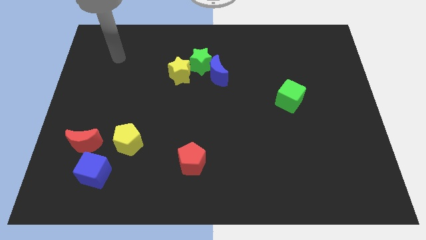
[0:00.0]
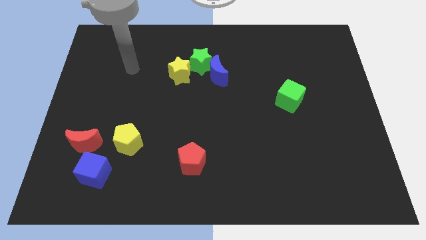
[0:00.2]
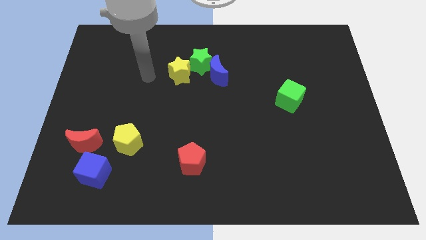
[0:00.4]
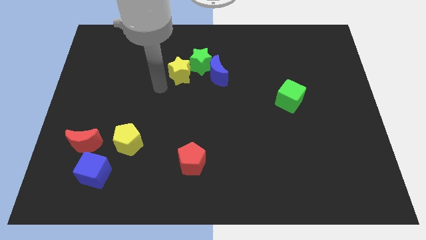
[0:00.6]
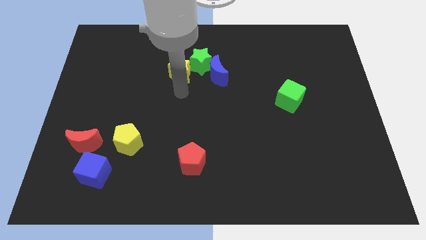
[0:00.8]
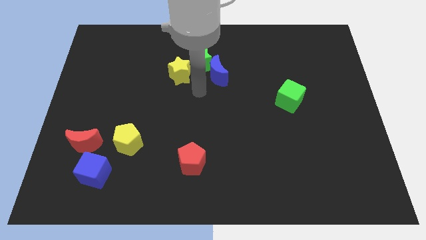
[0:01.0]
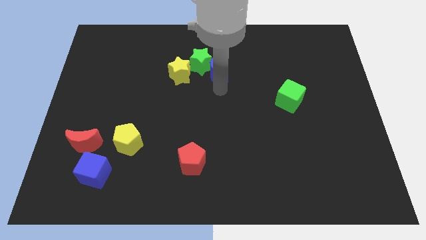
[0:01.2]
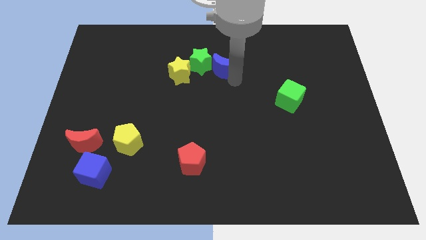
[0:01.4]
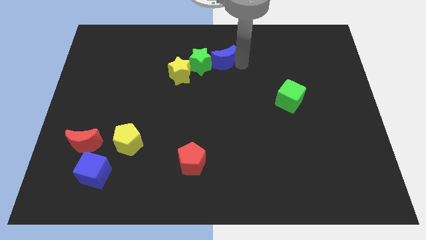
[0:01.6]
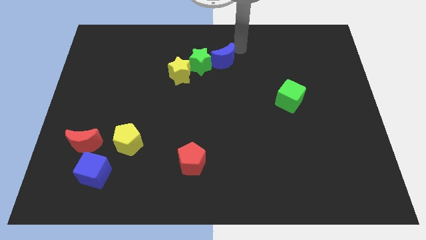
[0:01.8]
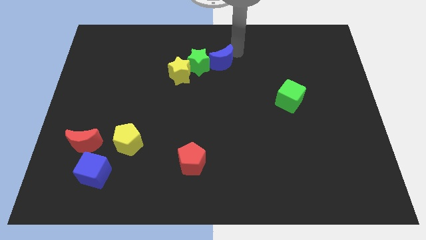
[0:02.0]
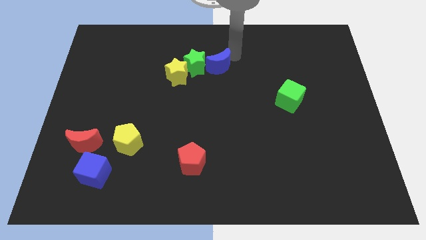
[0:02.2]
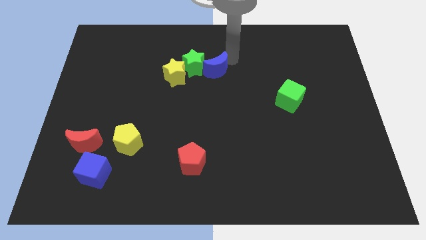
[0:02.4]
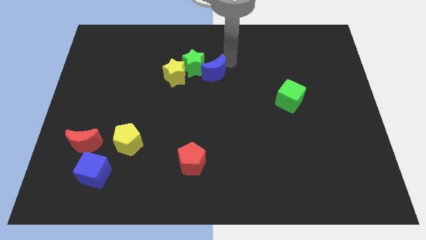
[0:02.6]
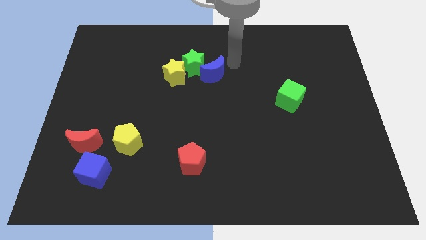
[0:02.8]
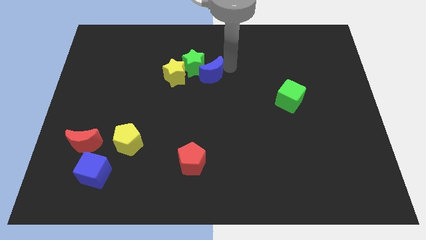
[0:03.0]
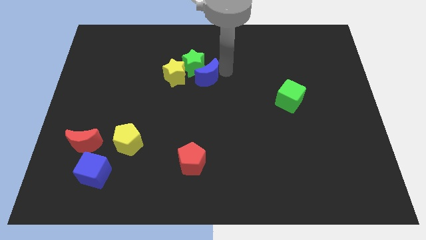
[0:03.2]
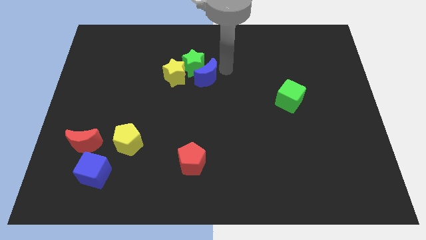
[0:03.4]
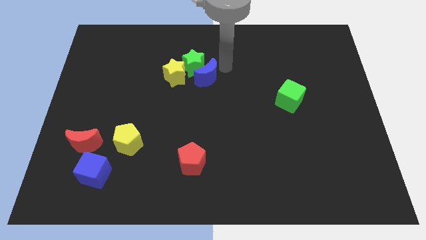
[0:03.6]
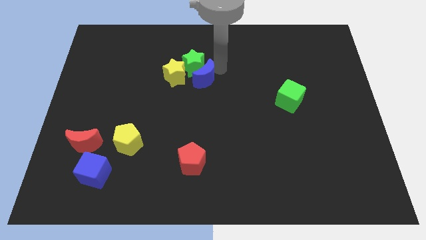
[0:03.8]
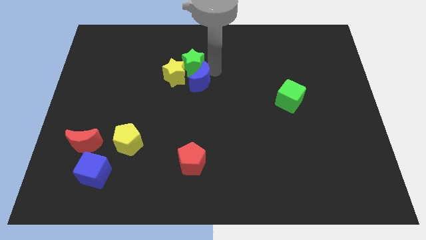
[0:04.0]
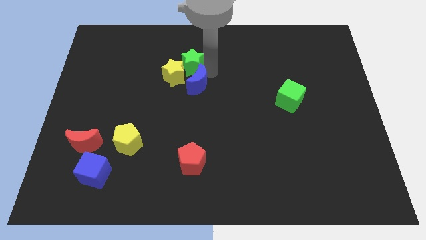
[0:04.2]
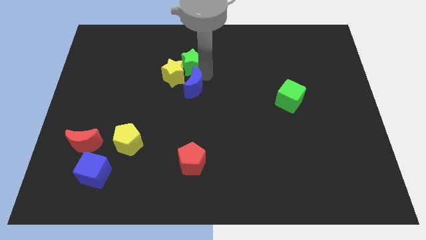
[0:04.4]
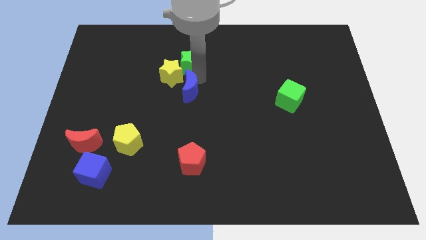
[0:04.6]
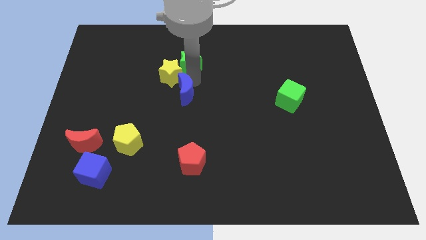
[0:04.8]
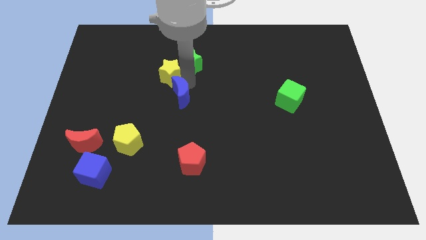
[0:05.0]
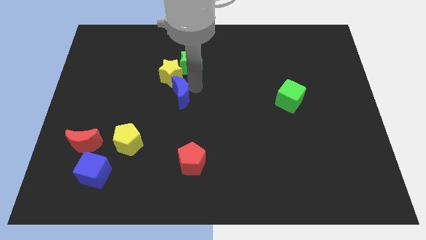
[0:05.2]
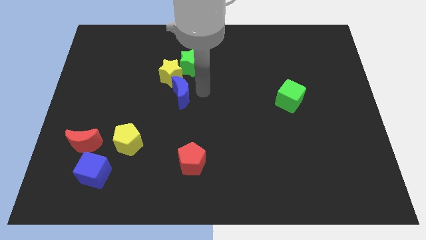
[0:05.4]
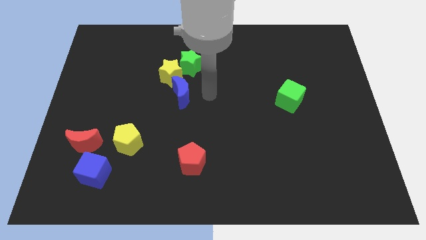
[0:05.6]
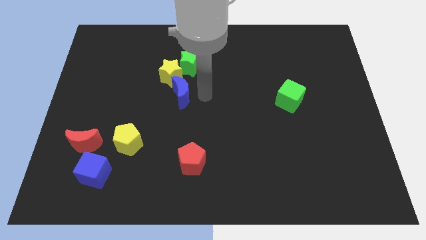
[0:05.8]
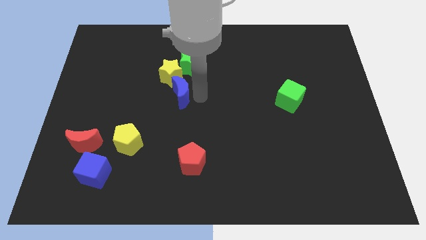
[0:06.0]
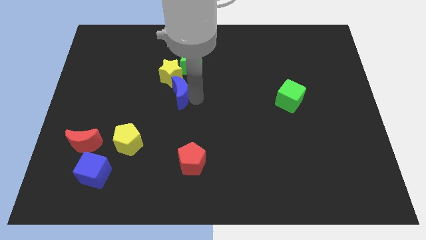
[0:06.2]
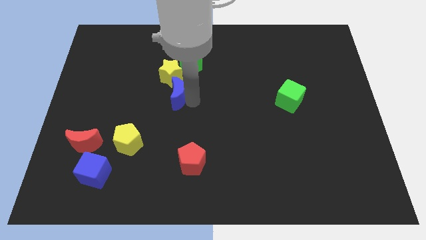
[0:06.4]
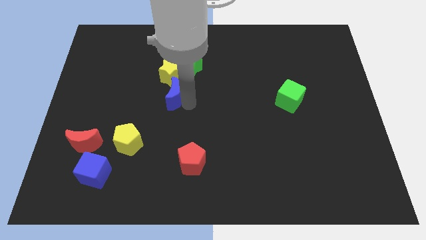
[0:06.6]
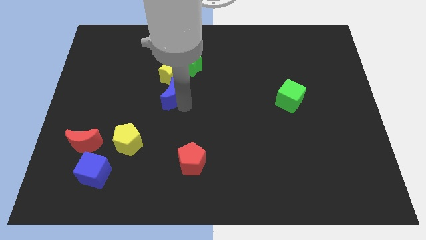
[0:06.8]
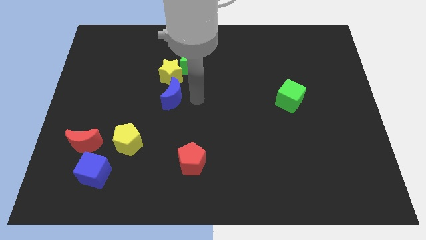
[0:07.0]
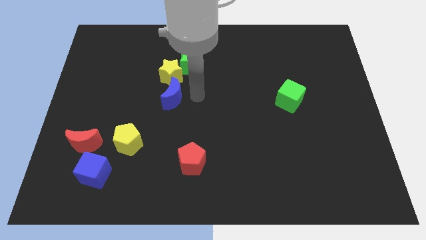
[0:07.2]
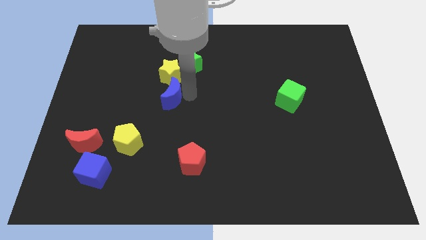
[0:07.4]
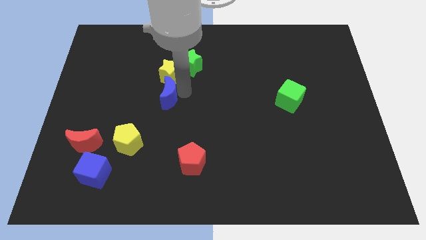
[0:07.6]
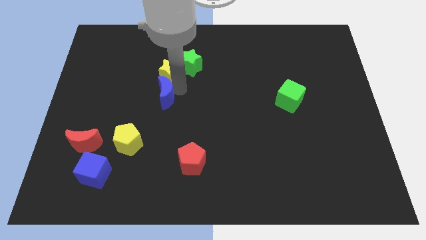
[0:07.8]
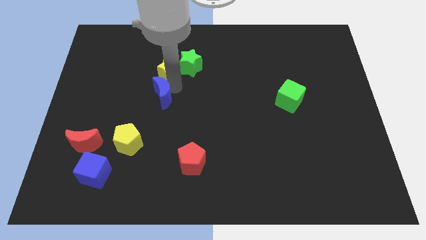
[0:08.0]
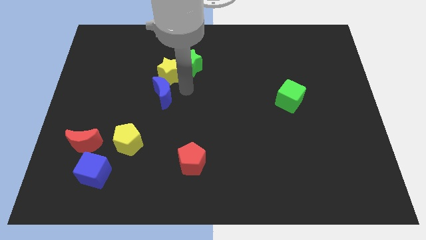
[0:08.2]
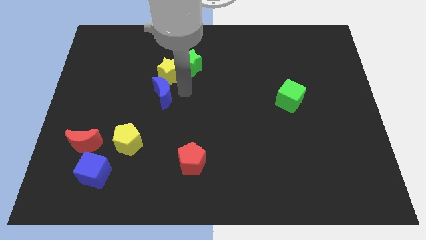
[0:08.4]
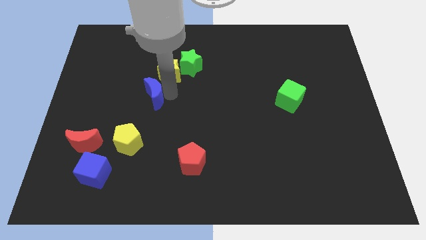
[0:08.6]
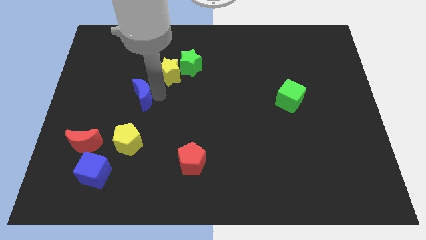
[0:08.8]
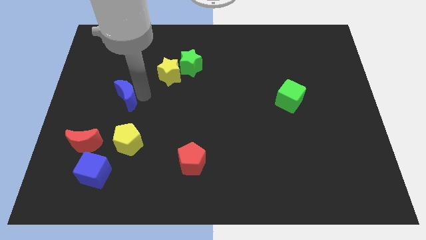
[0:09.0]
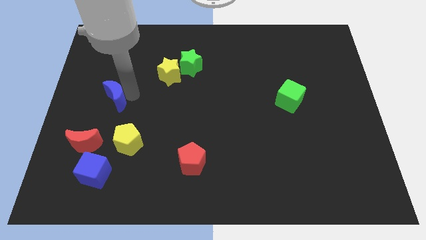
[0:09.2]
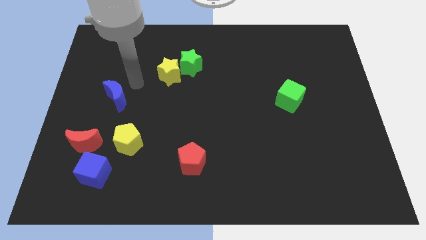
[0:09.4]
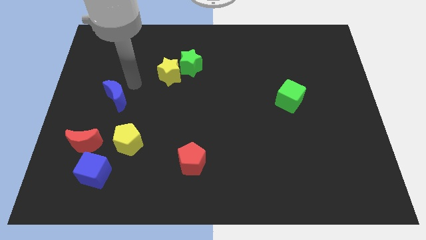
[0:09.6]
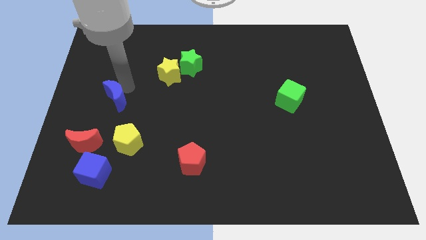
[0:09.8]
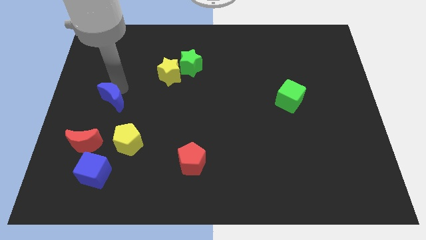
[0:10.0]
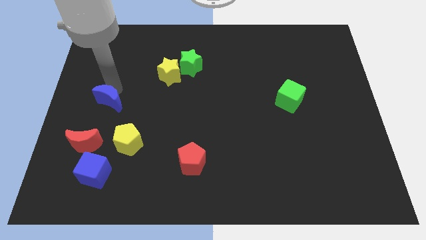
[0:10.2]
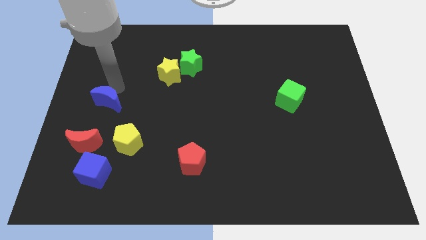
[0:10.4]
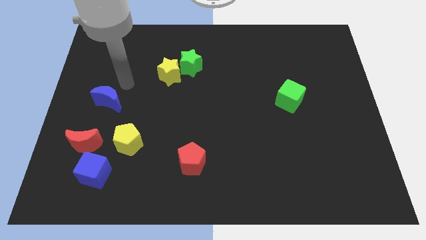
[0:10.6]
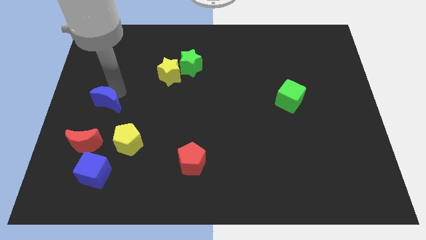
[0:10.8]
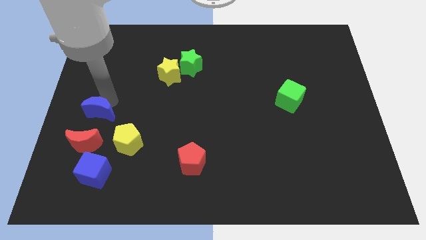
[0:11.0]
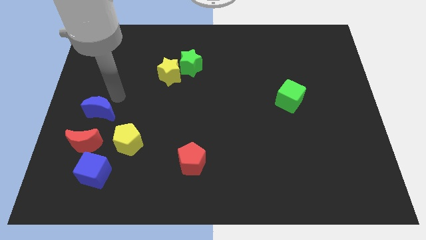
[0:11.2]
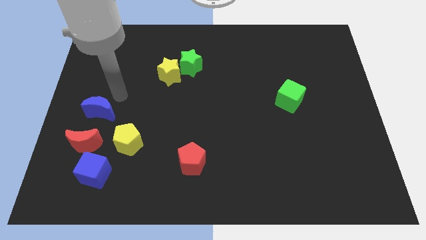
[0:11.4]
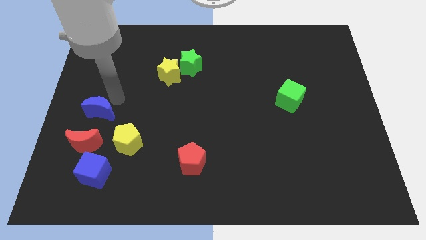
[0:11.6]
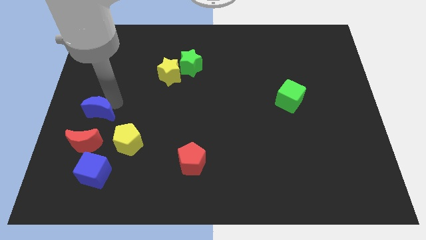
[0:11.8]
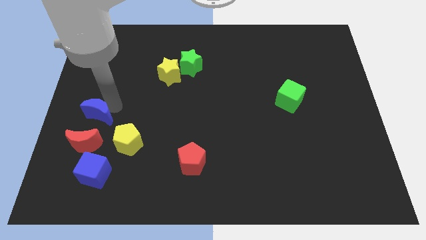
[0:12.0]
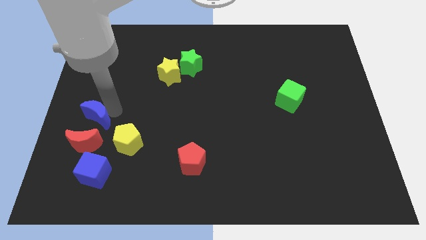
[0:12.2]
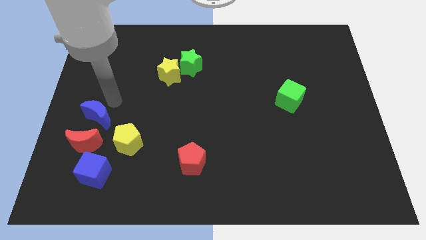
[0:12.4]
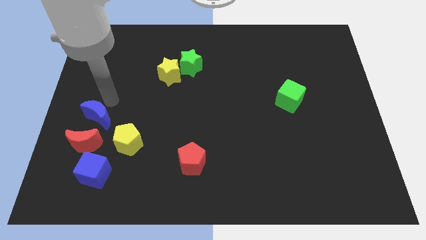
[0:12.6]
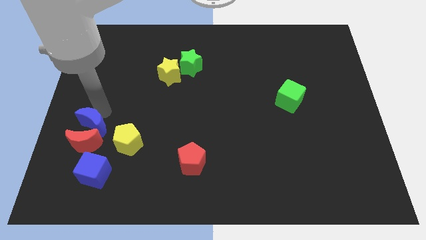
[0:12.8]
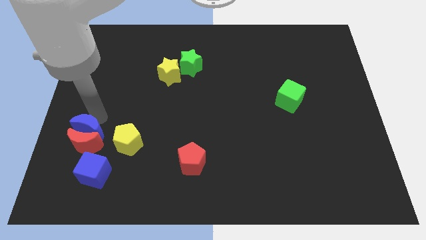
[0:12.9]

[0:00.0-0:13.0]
move the blue moon to the left side of the yellow pentagon
